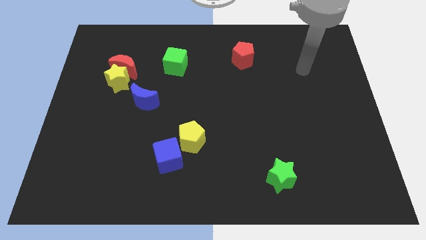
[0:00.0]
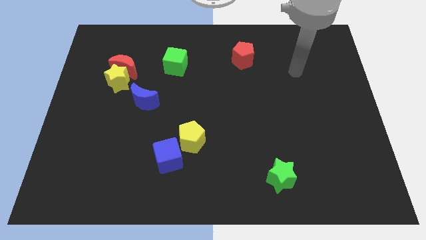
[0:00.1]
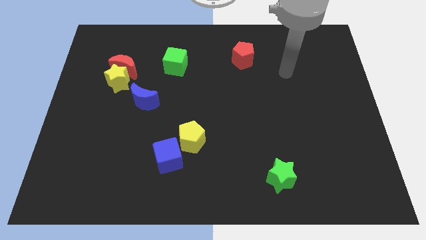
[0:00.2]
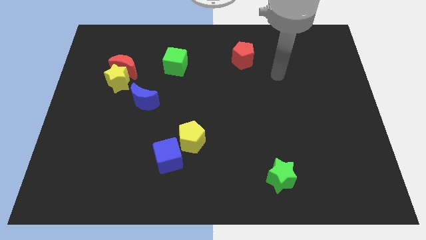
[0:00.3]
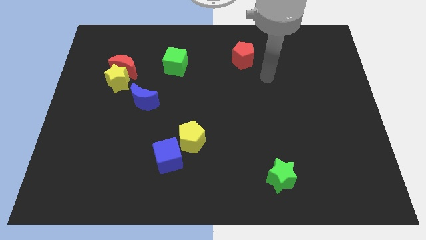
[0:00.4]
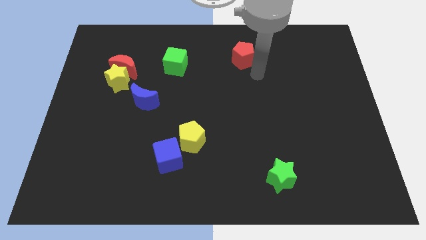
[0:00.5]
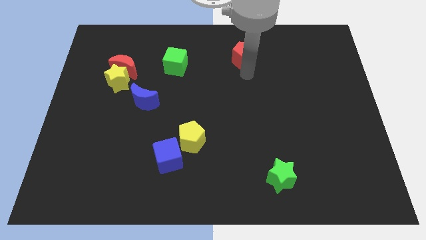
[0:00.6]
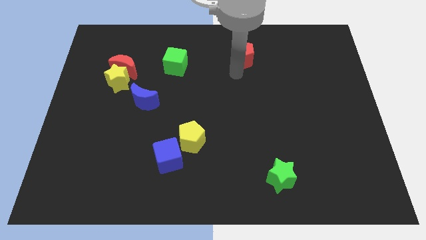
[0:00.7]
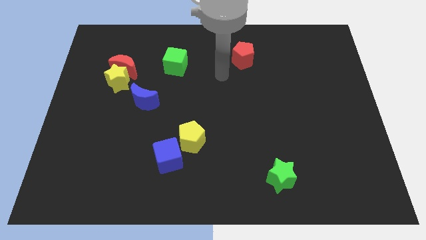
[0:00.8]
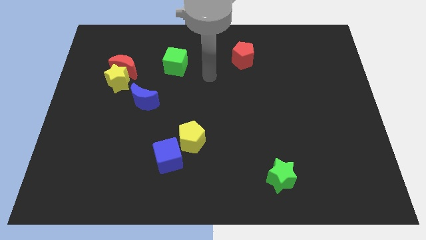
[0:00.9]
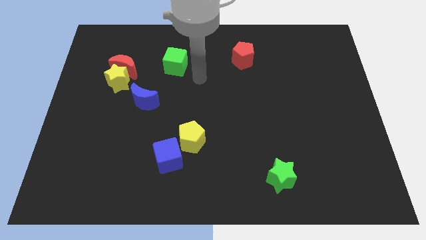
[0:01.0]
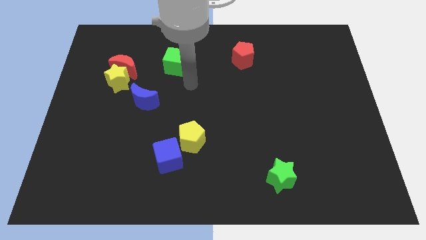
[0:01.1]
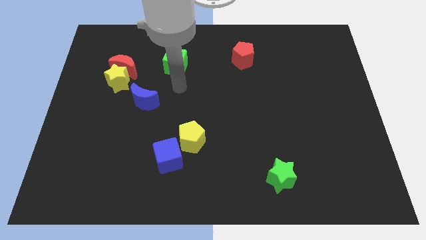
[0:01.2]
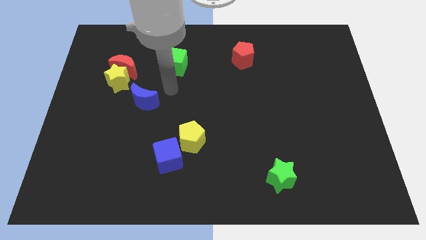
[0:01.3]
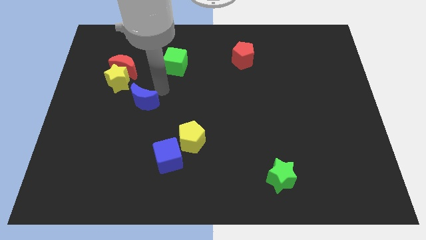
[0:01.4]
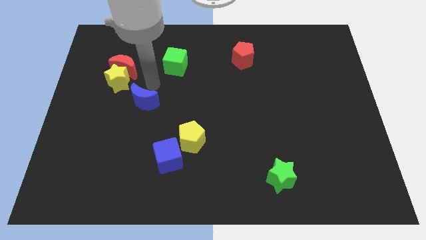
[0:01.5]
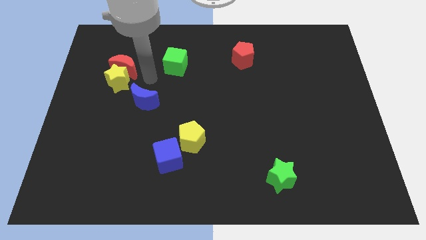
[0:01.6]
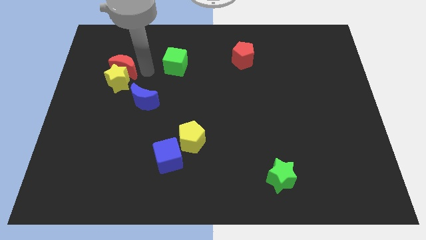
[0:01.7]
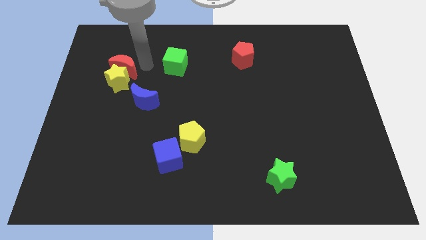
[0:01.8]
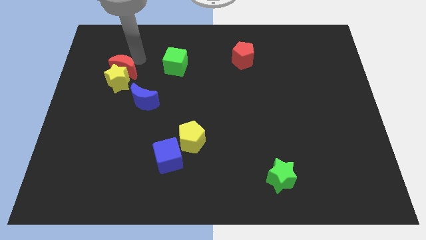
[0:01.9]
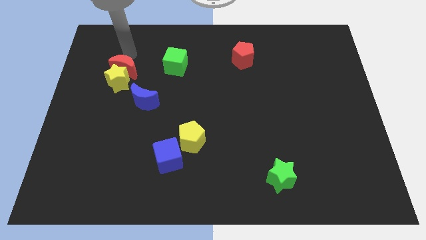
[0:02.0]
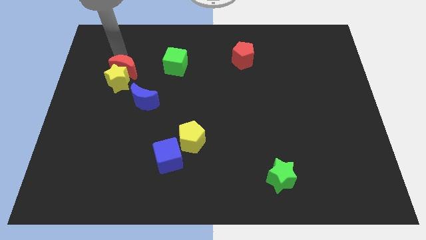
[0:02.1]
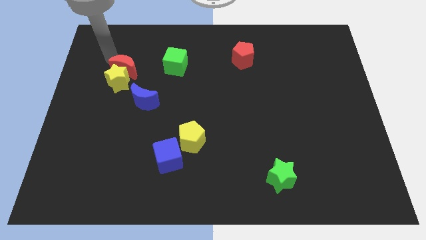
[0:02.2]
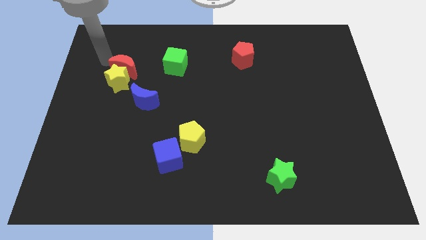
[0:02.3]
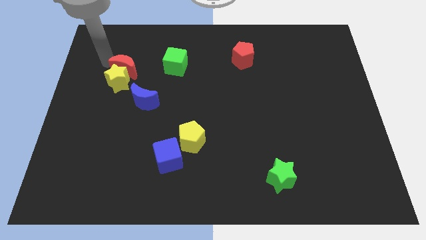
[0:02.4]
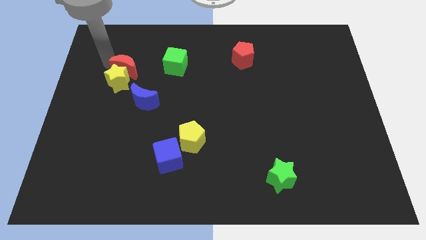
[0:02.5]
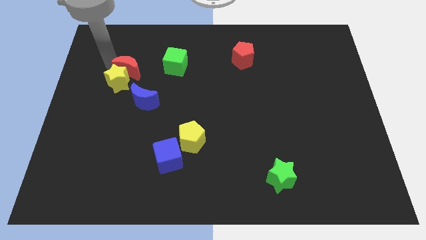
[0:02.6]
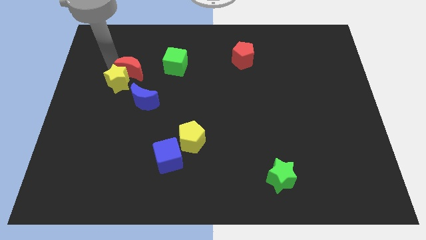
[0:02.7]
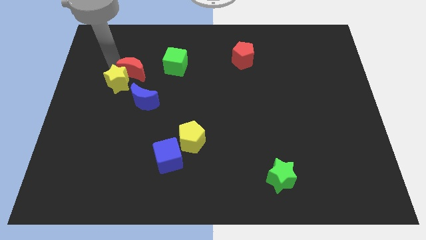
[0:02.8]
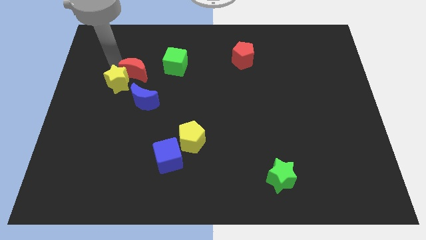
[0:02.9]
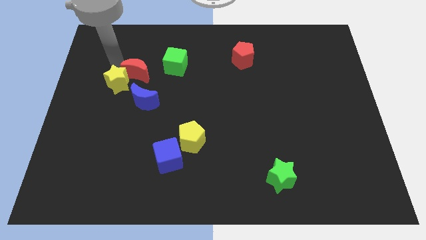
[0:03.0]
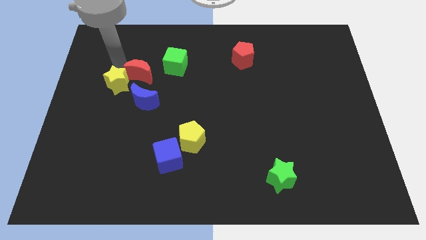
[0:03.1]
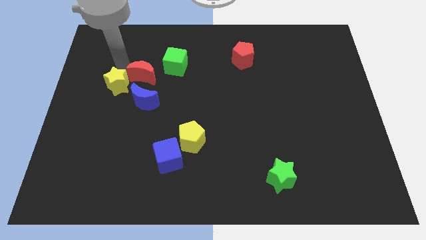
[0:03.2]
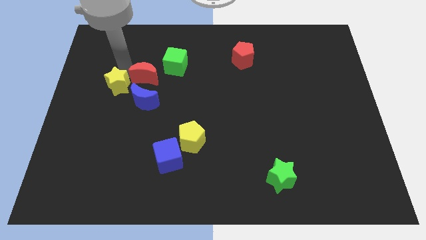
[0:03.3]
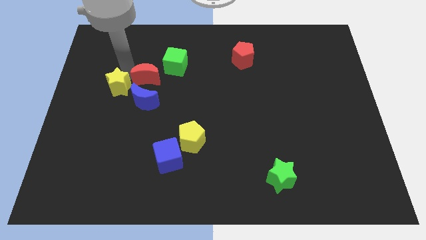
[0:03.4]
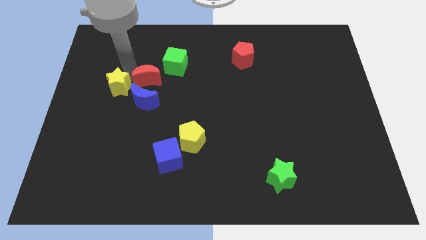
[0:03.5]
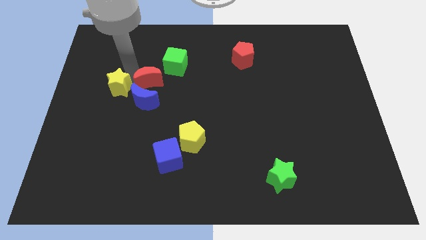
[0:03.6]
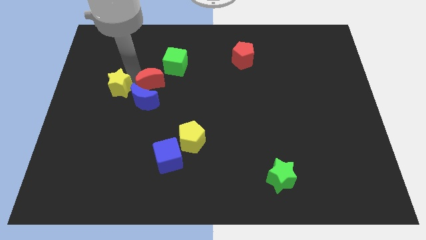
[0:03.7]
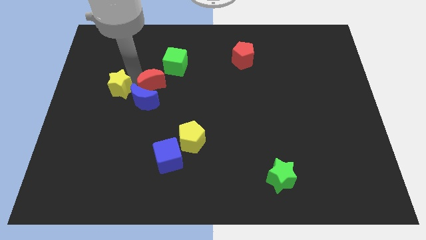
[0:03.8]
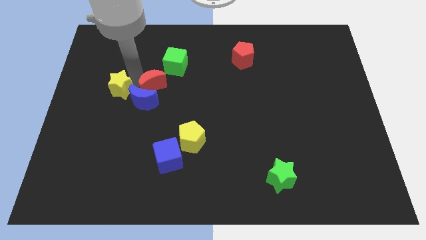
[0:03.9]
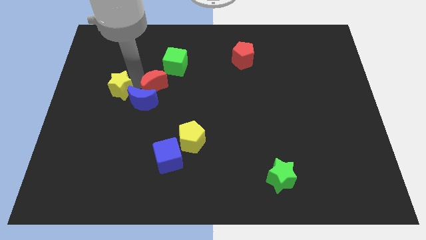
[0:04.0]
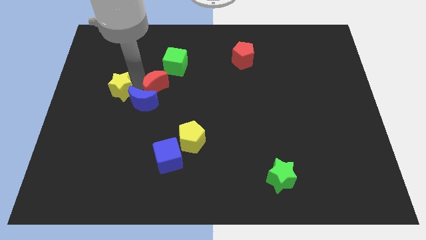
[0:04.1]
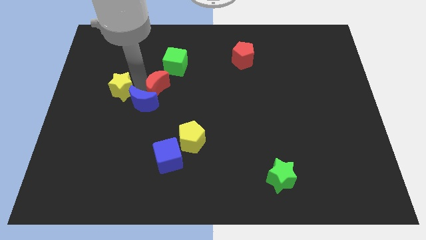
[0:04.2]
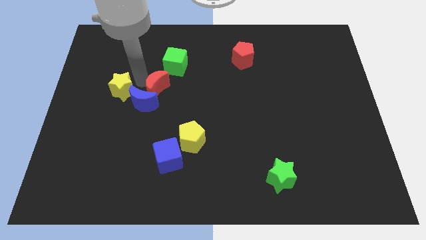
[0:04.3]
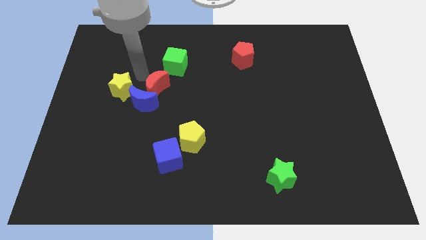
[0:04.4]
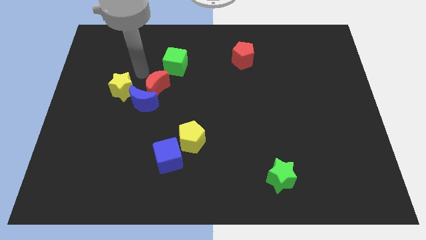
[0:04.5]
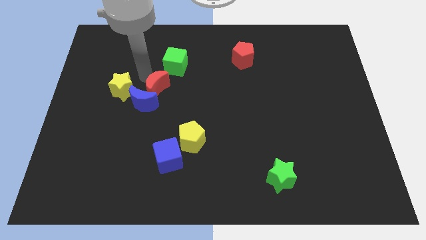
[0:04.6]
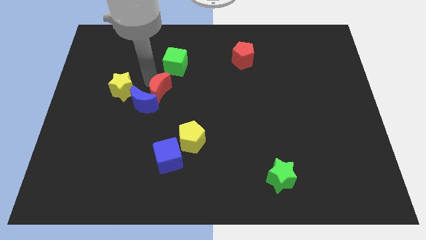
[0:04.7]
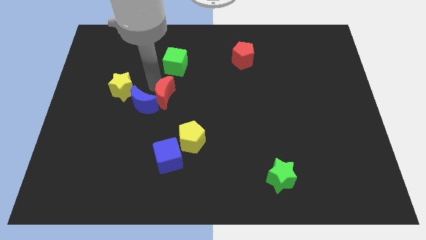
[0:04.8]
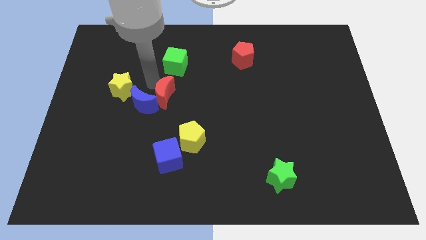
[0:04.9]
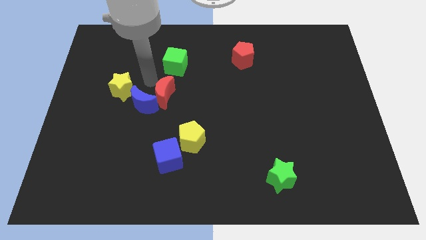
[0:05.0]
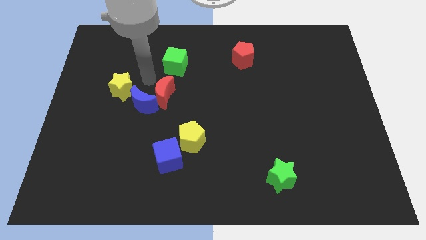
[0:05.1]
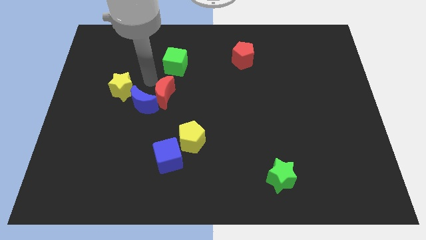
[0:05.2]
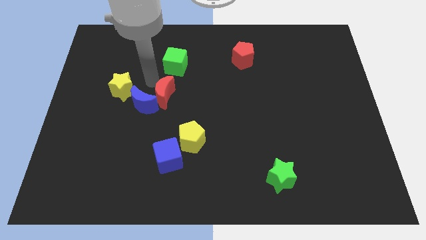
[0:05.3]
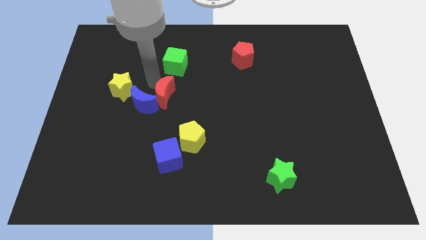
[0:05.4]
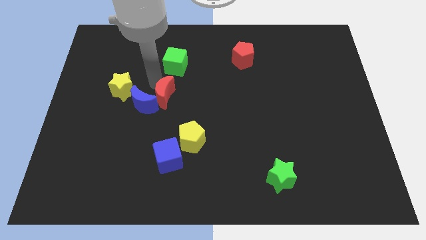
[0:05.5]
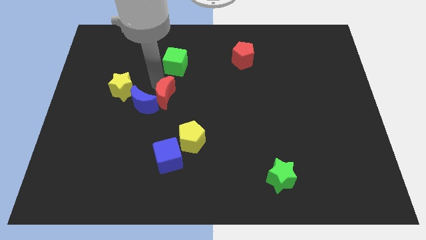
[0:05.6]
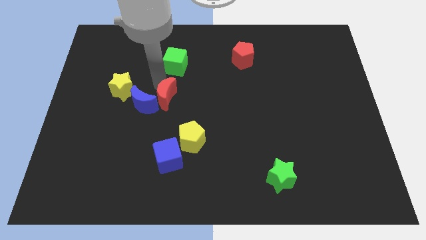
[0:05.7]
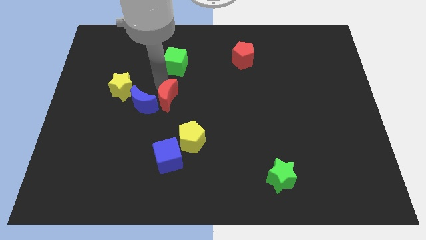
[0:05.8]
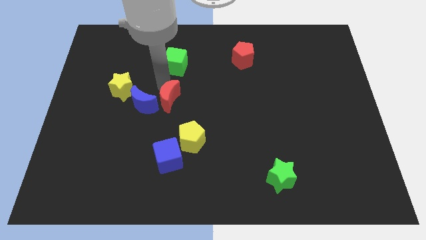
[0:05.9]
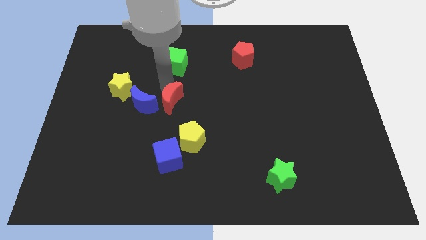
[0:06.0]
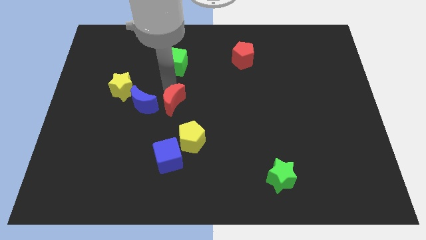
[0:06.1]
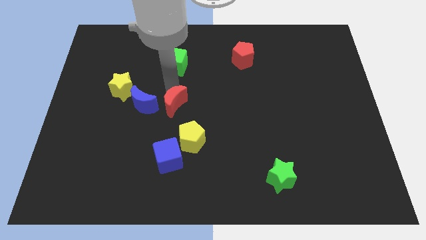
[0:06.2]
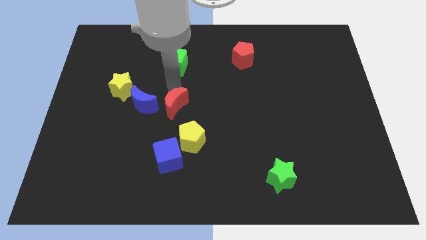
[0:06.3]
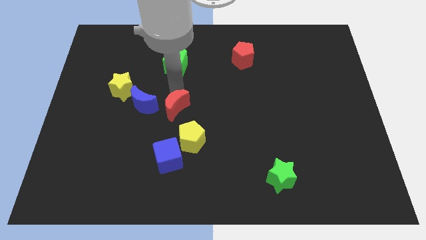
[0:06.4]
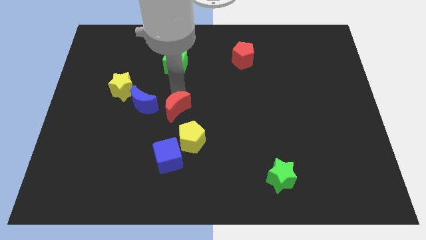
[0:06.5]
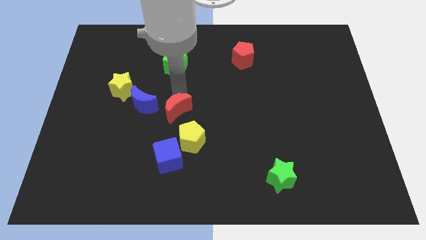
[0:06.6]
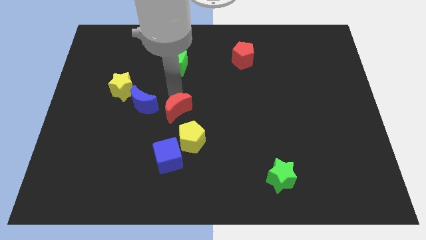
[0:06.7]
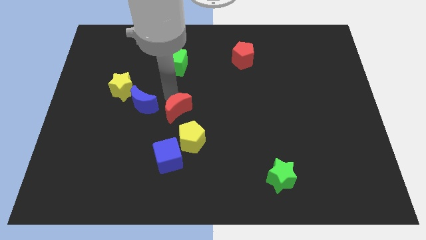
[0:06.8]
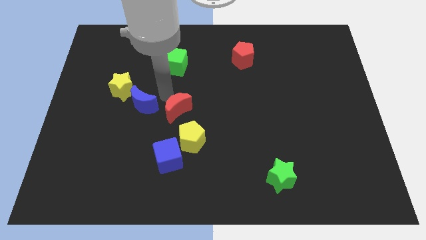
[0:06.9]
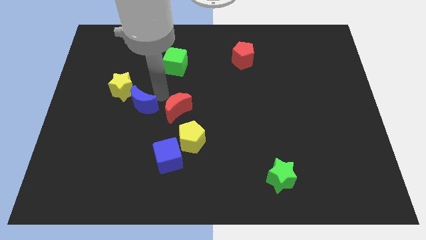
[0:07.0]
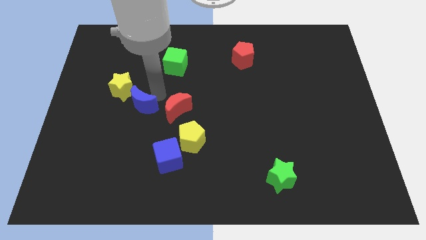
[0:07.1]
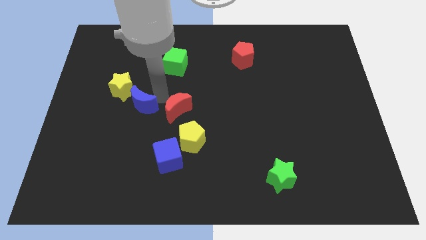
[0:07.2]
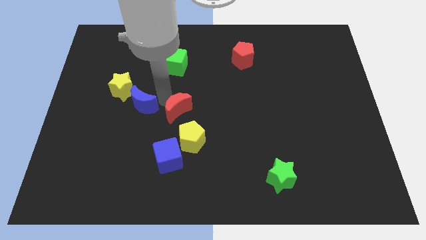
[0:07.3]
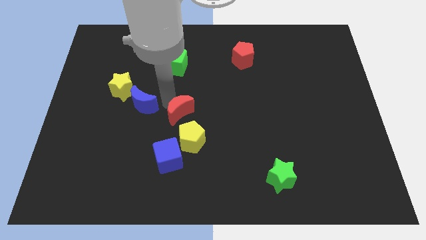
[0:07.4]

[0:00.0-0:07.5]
move the red moon down and then to the right

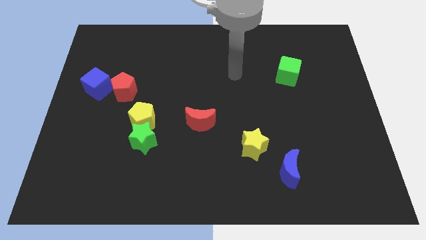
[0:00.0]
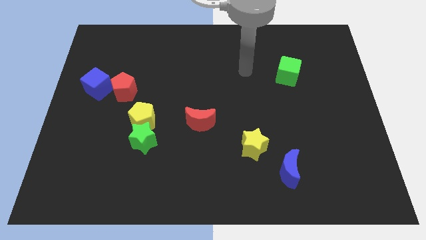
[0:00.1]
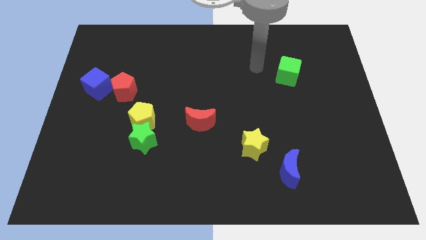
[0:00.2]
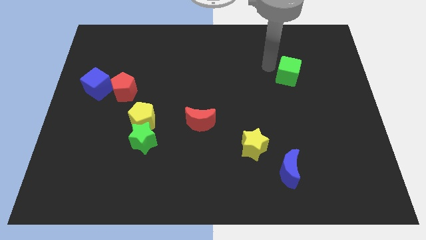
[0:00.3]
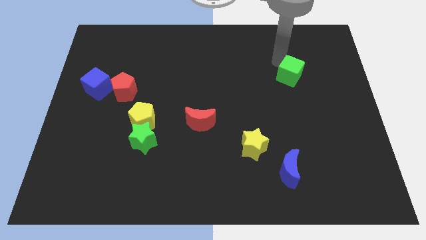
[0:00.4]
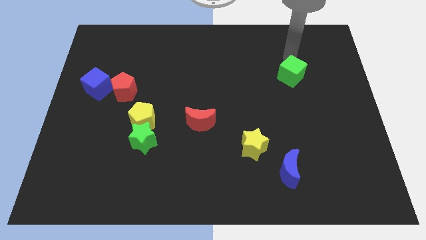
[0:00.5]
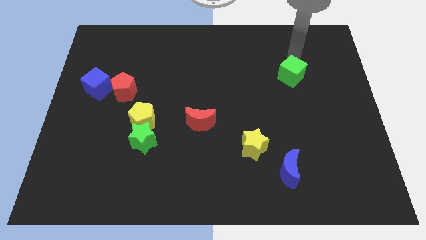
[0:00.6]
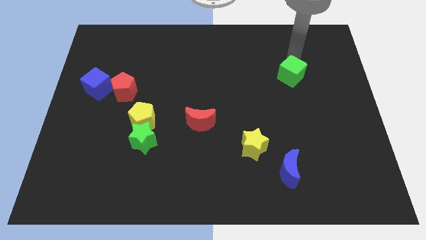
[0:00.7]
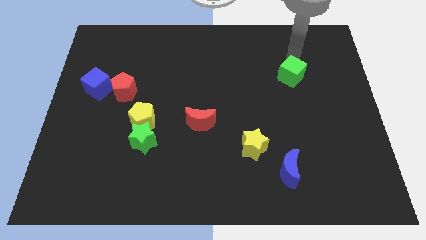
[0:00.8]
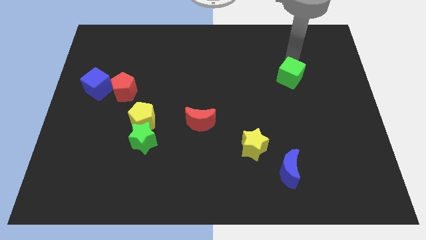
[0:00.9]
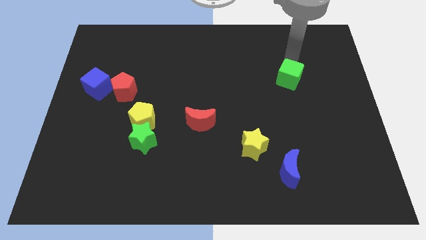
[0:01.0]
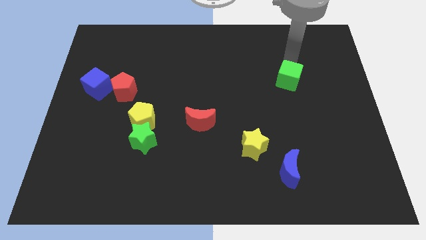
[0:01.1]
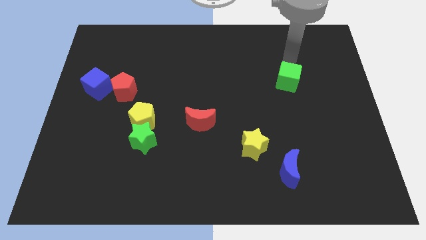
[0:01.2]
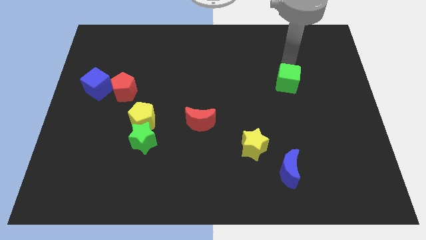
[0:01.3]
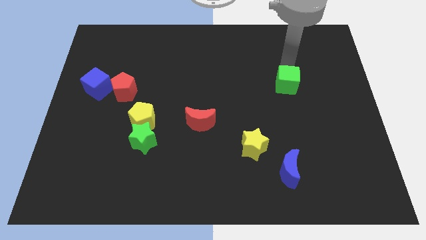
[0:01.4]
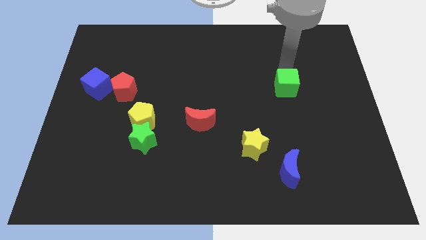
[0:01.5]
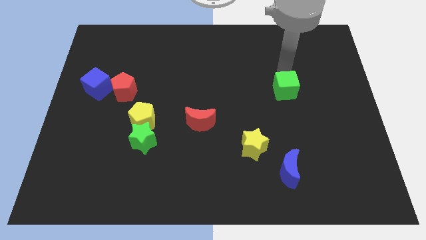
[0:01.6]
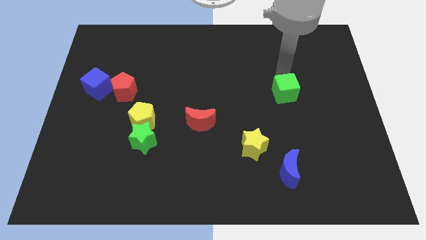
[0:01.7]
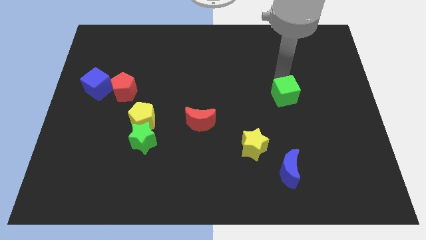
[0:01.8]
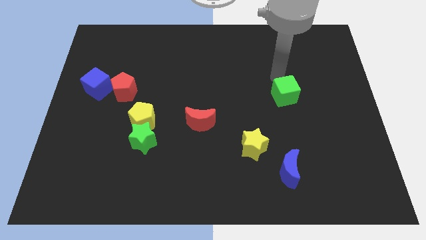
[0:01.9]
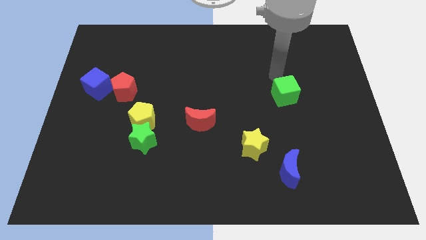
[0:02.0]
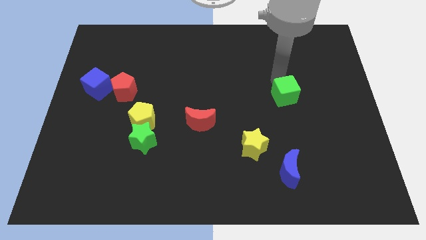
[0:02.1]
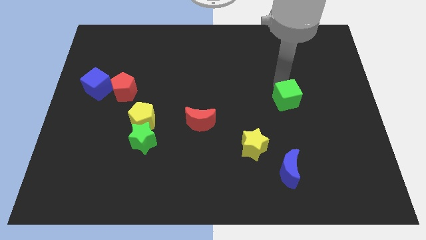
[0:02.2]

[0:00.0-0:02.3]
push the green cube downwards a little bit
